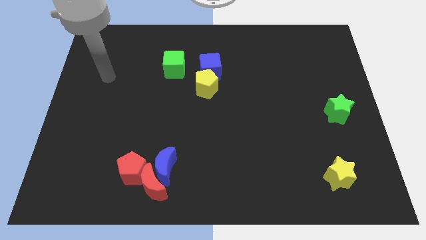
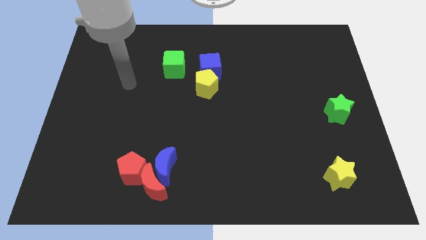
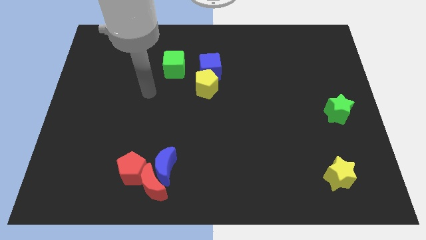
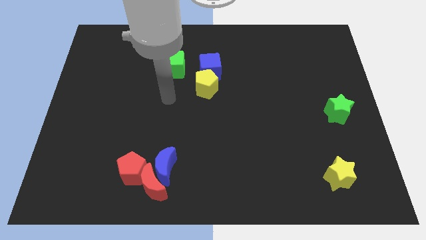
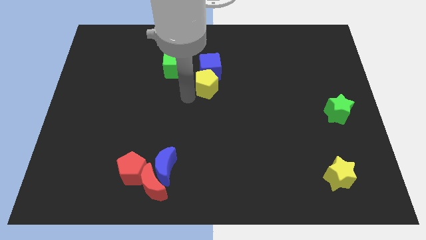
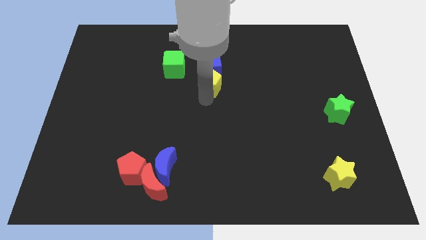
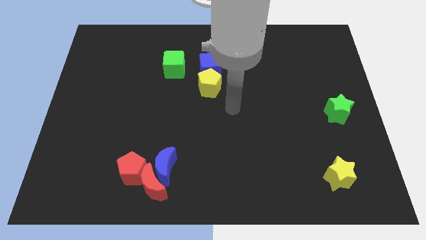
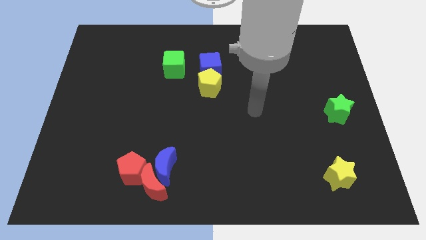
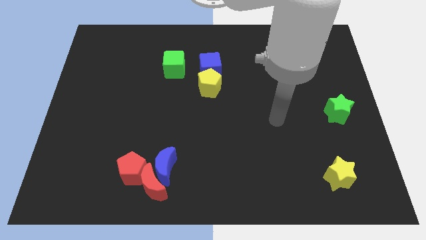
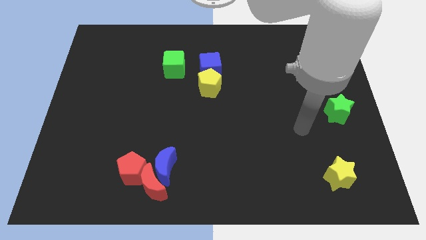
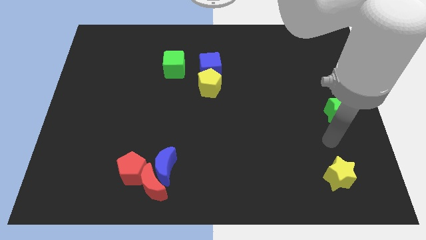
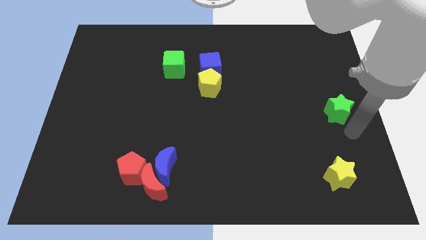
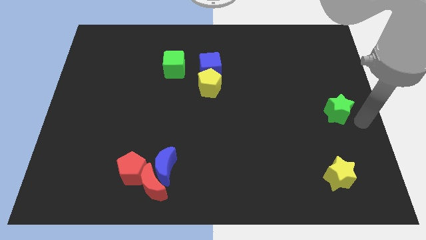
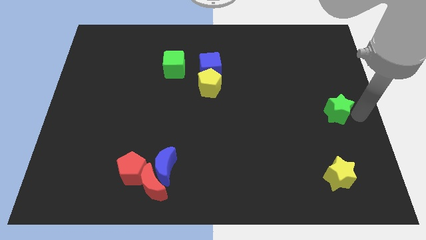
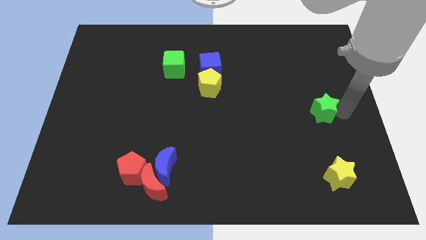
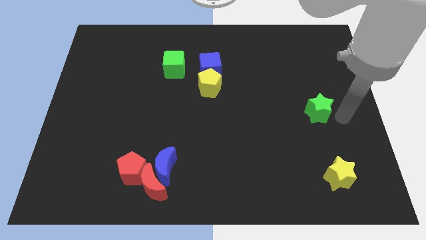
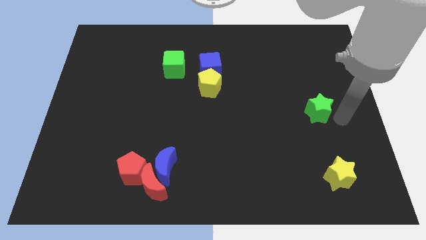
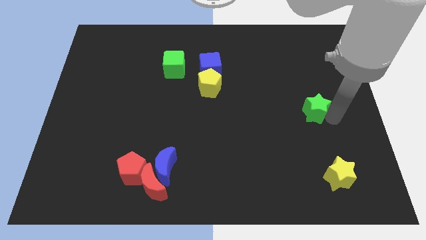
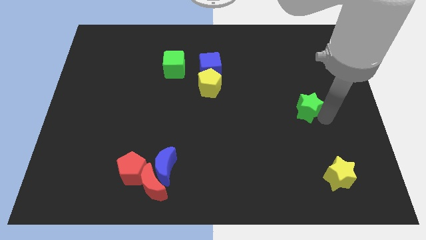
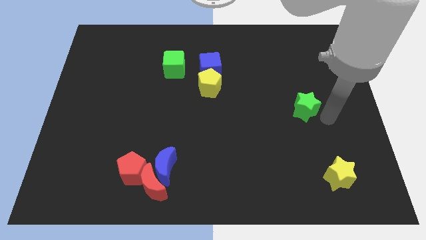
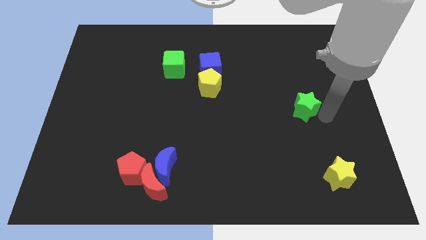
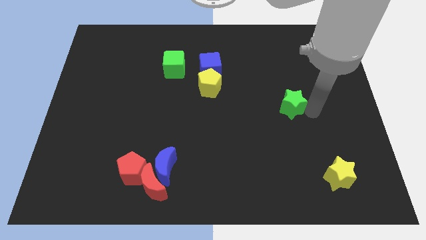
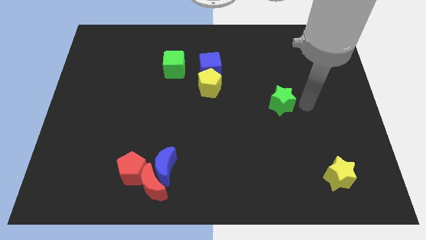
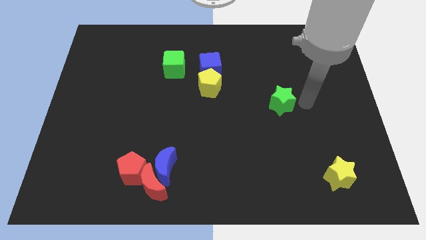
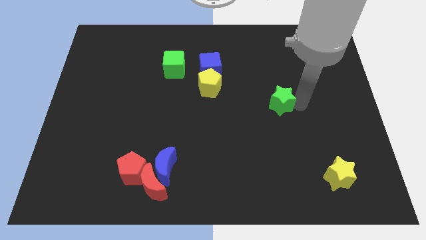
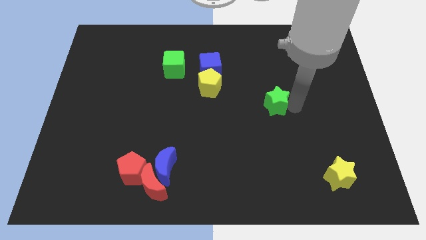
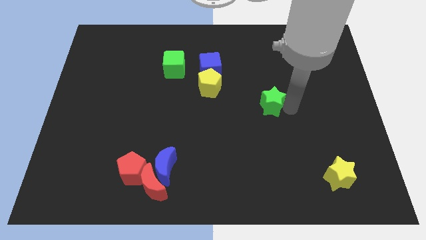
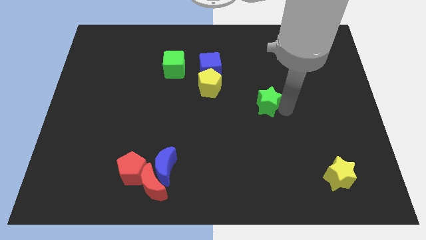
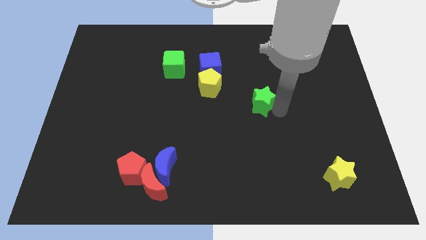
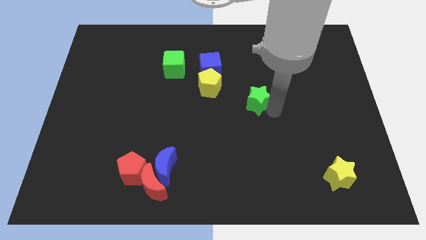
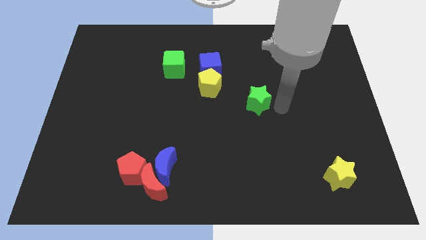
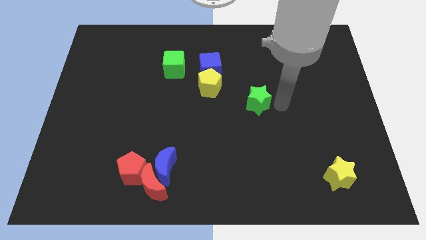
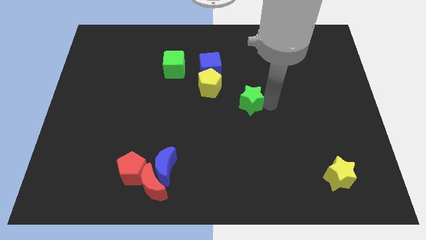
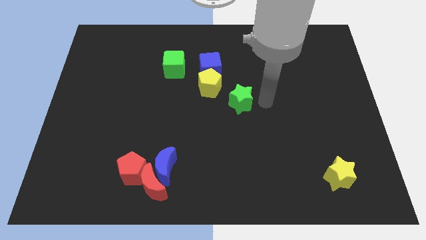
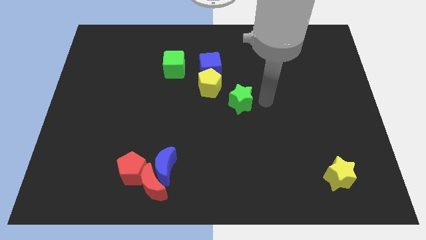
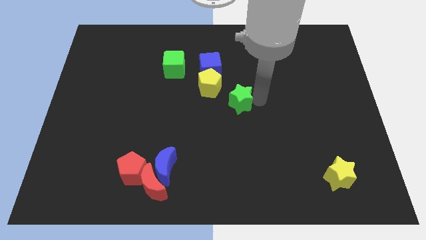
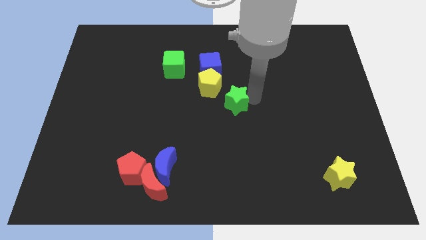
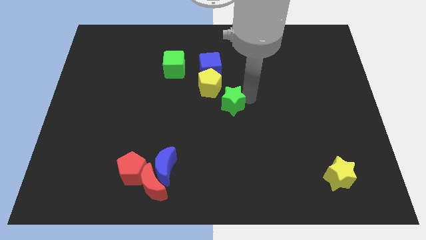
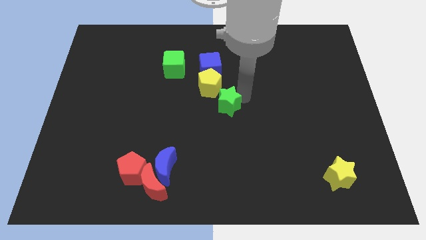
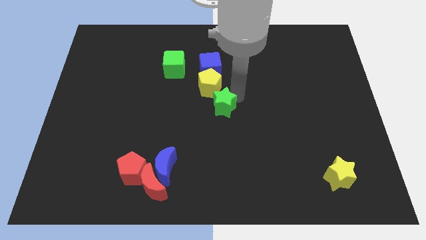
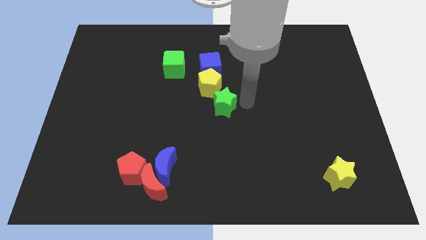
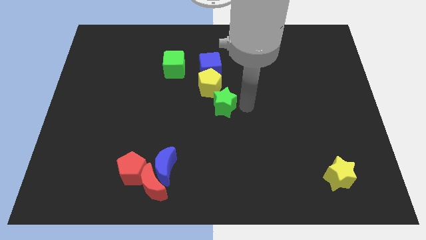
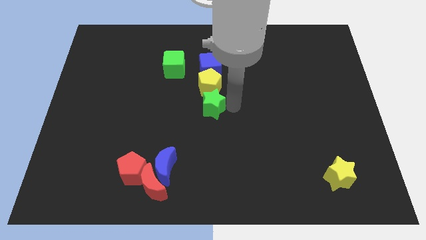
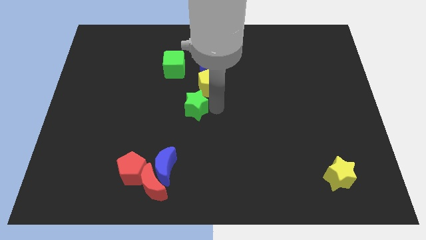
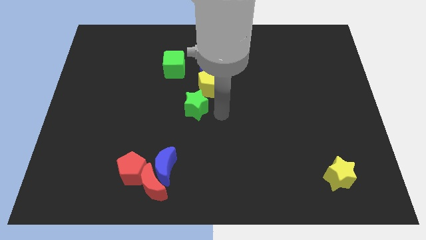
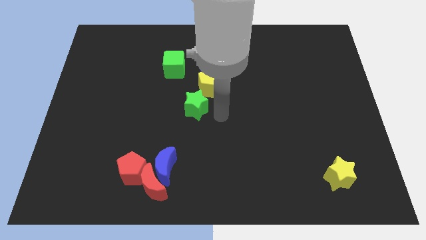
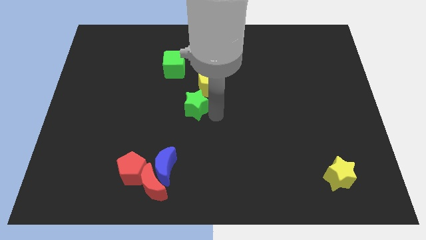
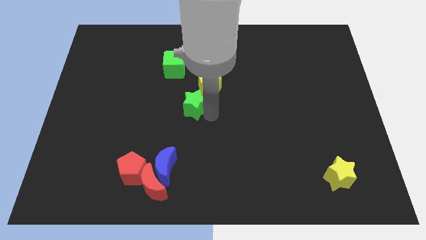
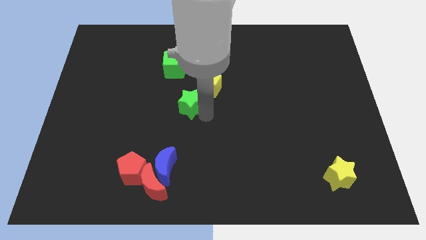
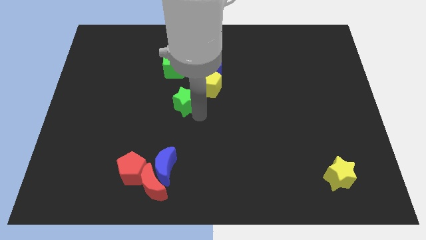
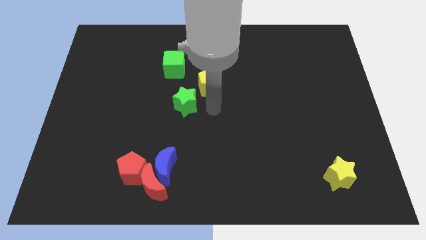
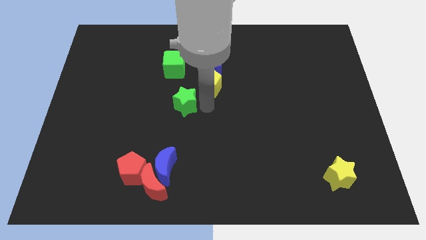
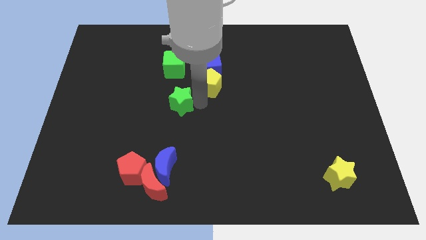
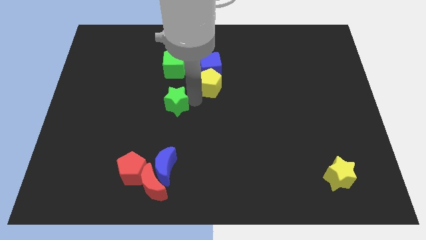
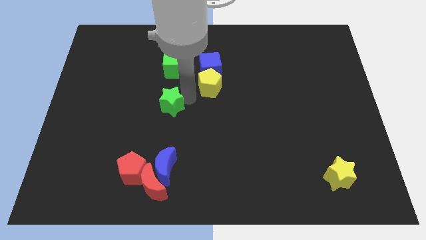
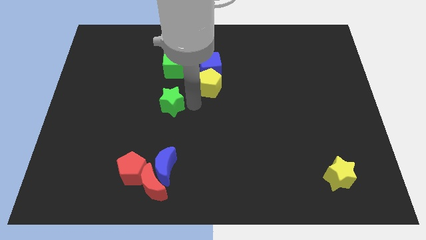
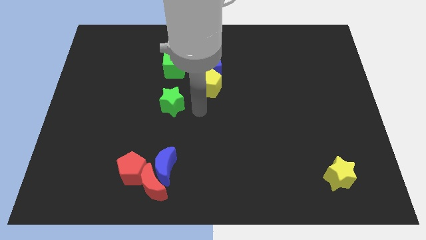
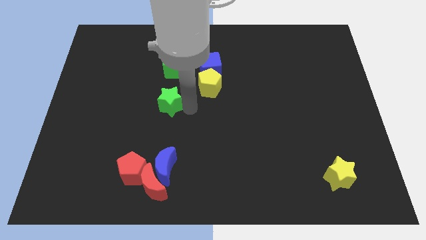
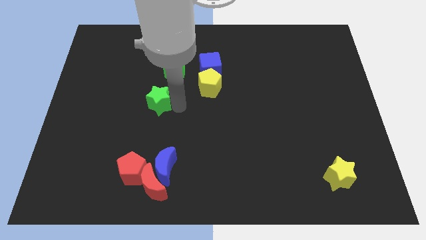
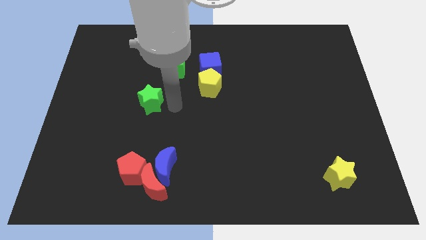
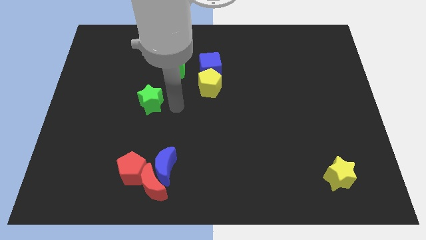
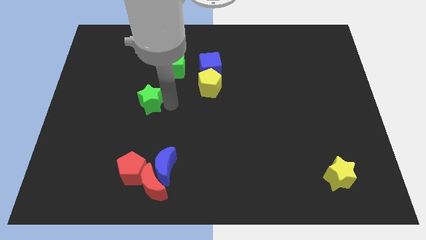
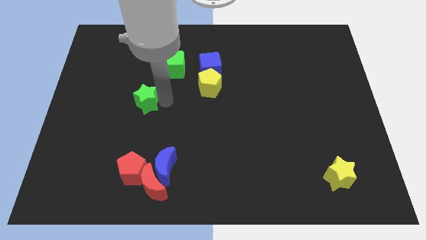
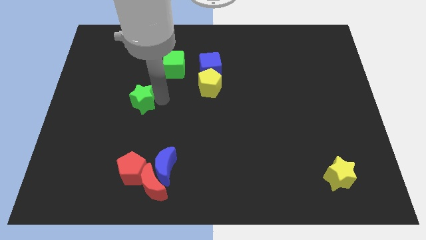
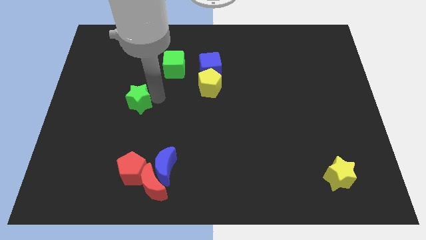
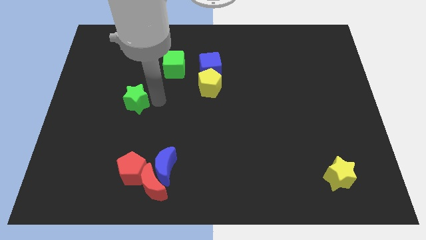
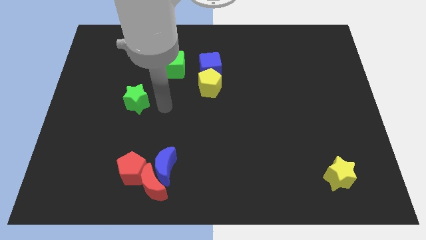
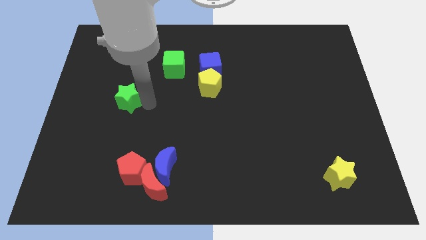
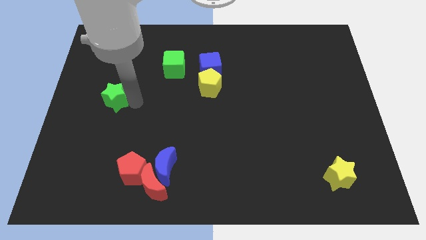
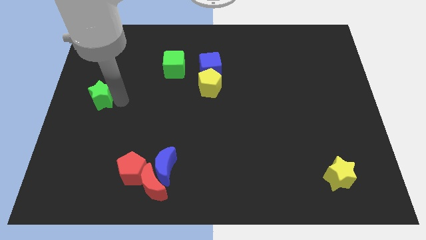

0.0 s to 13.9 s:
slide the green star to the center left

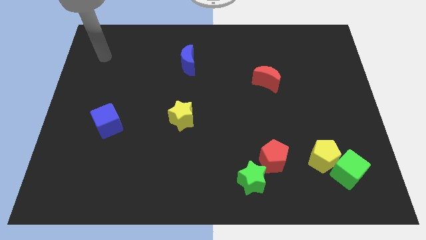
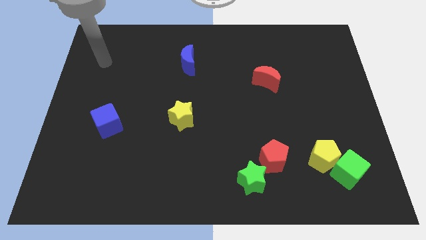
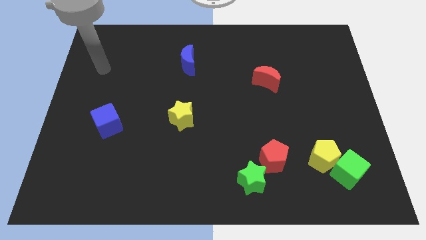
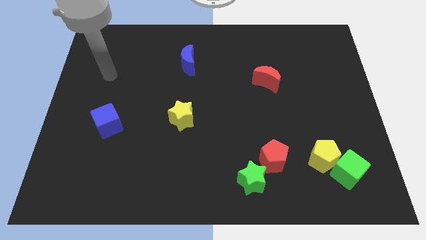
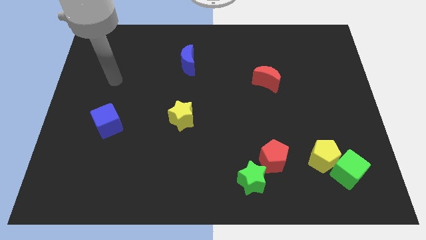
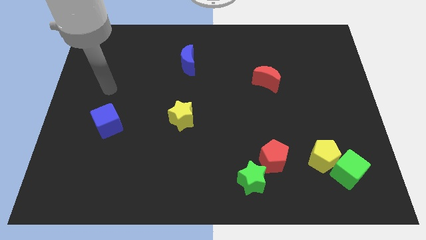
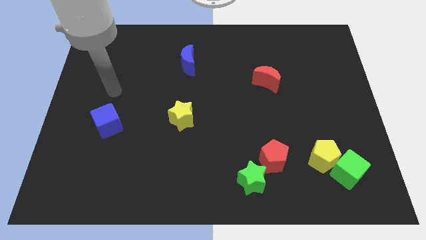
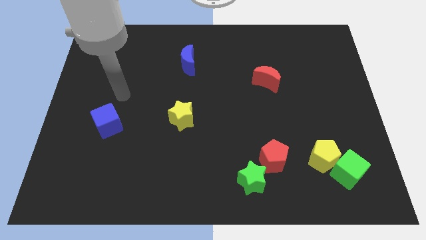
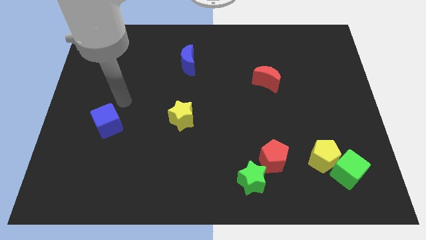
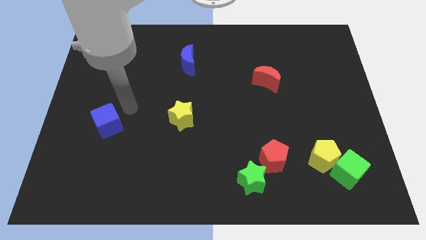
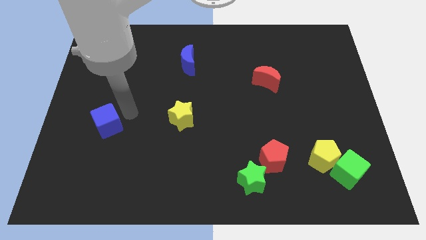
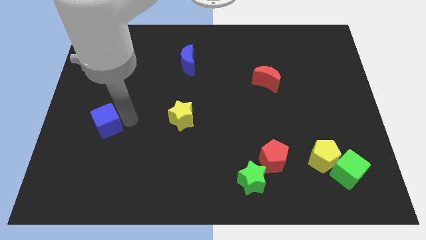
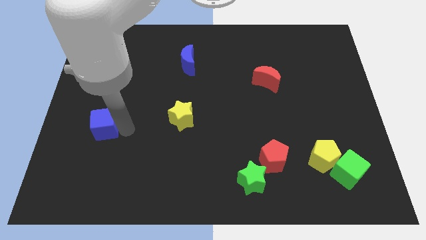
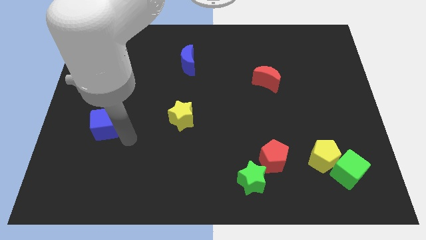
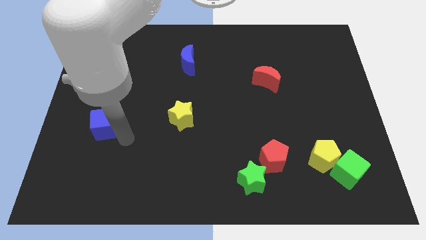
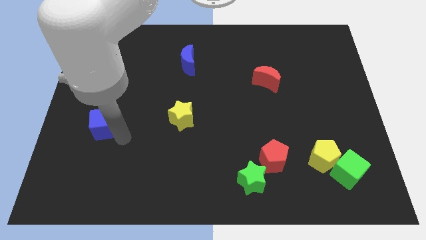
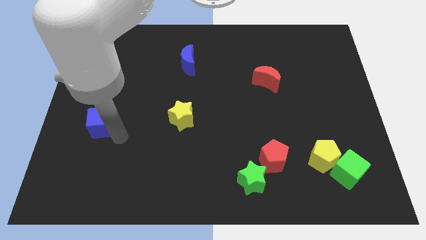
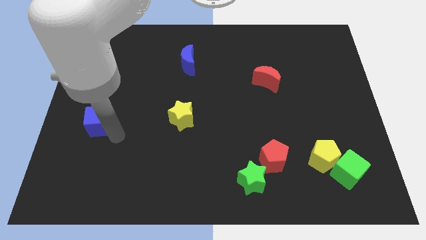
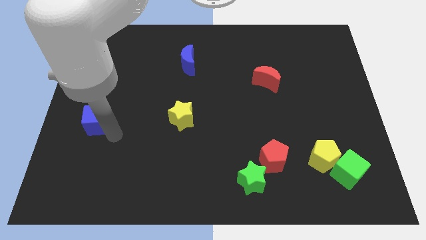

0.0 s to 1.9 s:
put the blue cube to the left side of the board
